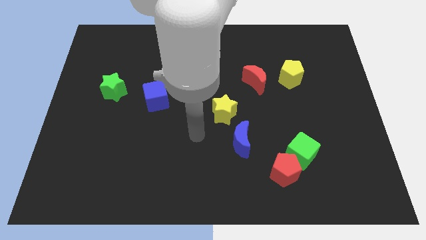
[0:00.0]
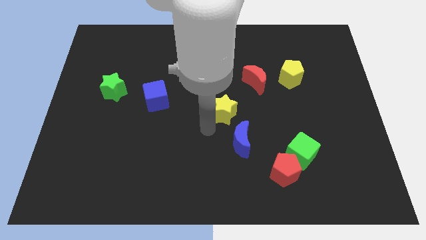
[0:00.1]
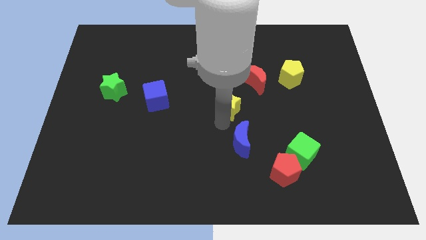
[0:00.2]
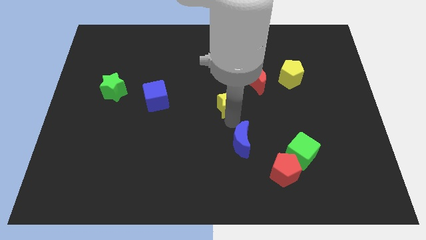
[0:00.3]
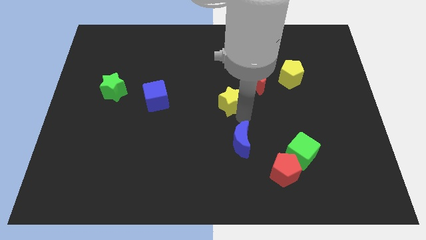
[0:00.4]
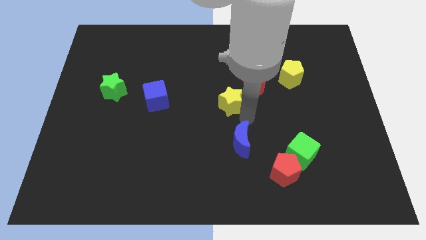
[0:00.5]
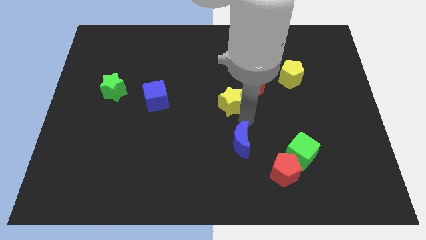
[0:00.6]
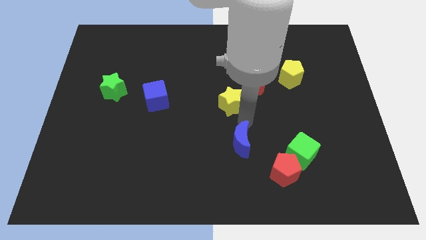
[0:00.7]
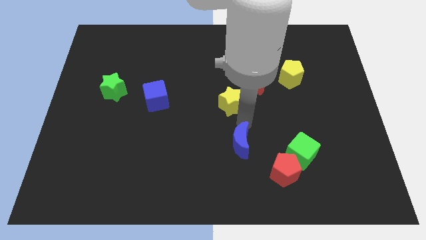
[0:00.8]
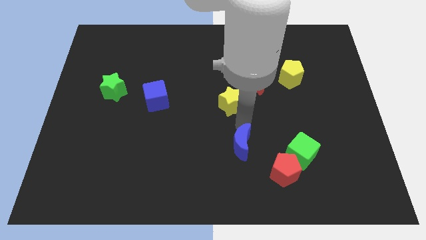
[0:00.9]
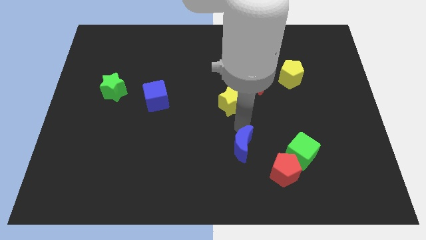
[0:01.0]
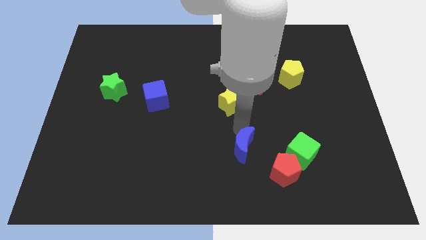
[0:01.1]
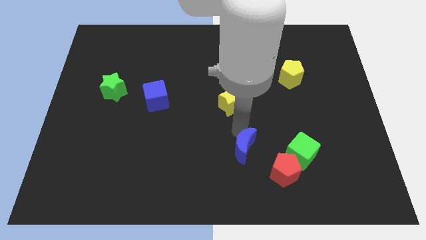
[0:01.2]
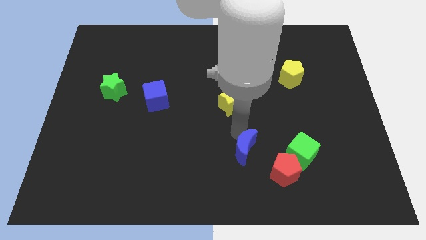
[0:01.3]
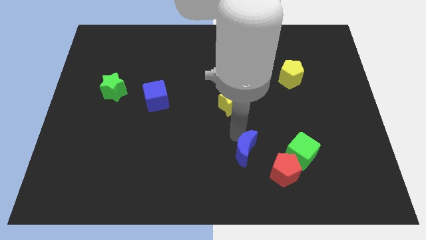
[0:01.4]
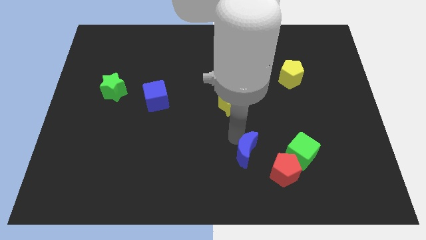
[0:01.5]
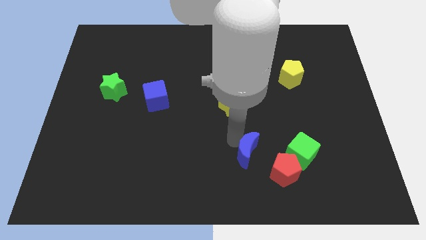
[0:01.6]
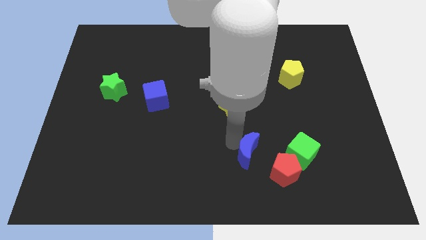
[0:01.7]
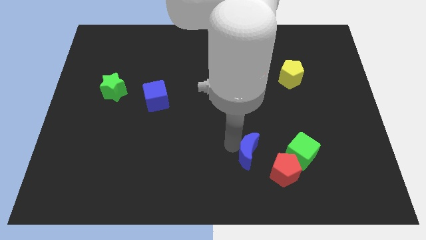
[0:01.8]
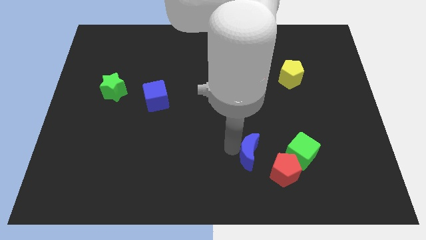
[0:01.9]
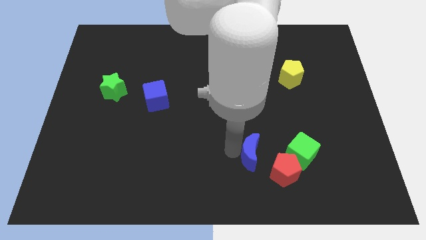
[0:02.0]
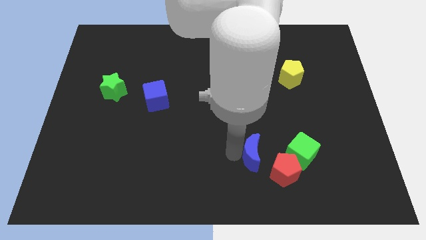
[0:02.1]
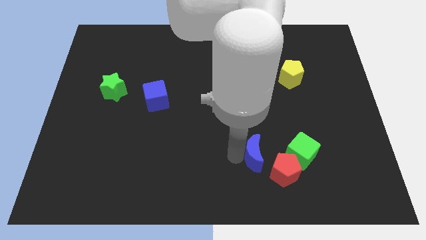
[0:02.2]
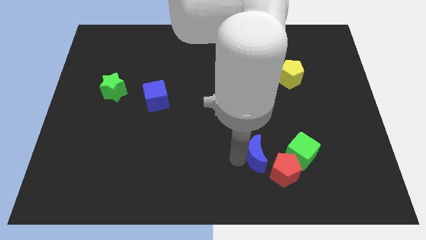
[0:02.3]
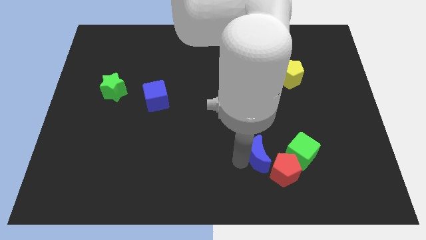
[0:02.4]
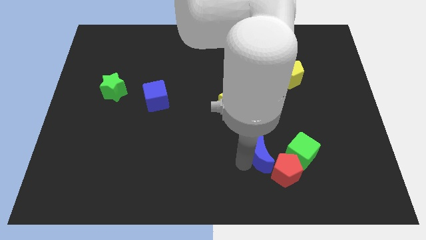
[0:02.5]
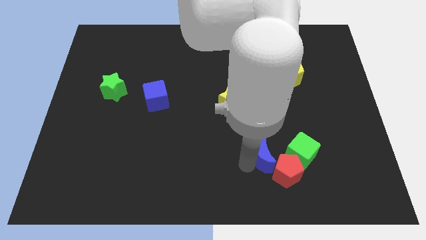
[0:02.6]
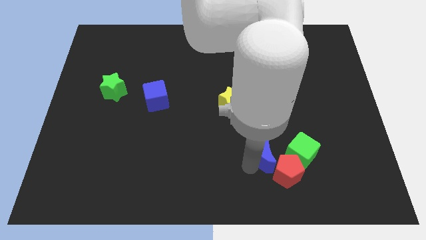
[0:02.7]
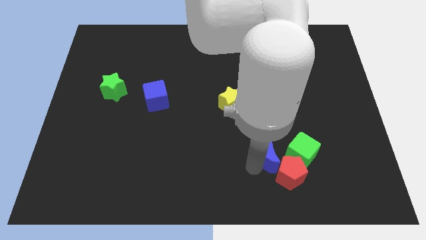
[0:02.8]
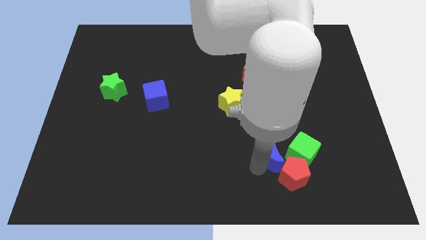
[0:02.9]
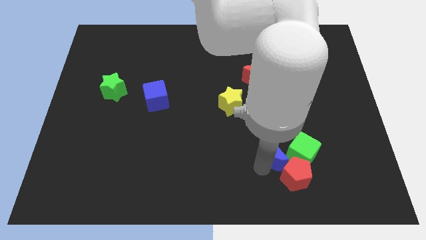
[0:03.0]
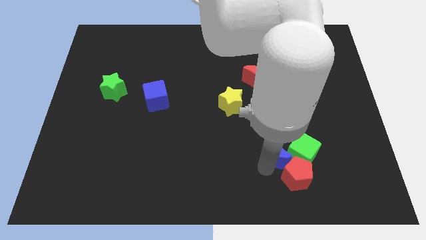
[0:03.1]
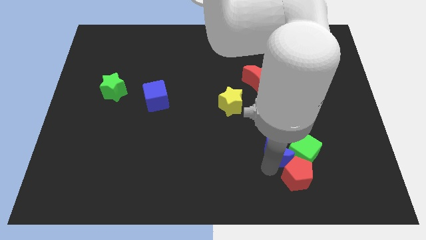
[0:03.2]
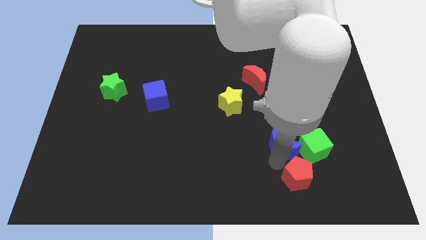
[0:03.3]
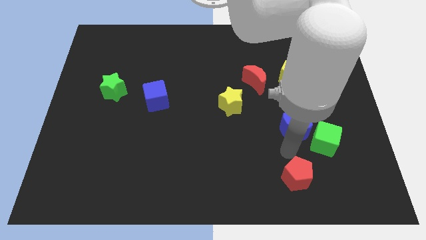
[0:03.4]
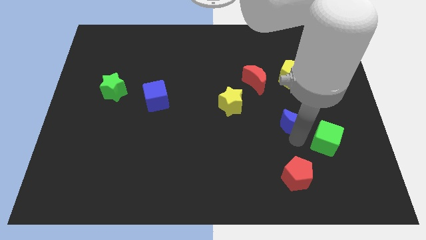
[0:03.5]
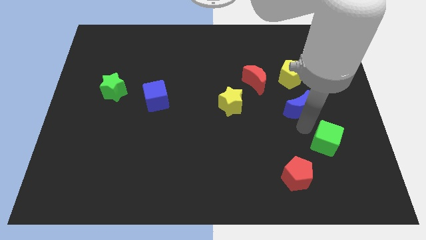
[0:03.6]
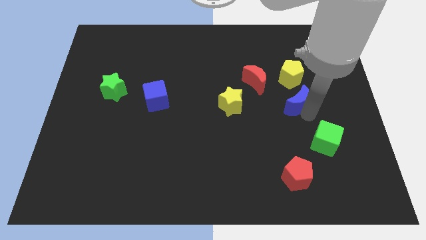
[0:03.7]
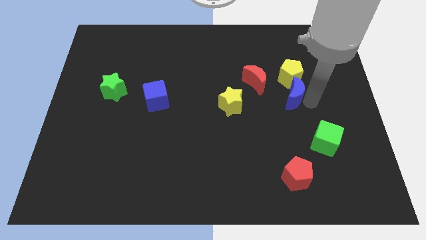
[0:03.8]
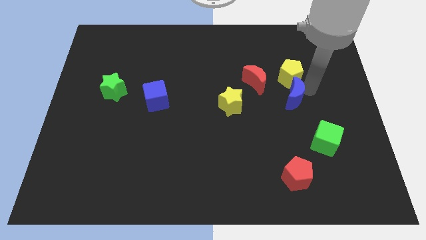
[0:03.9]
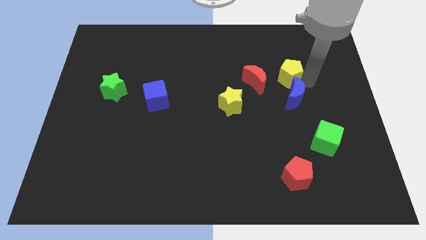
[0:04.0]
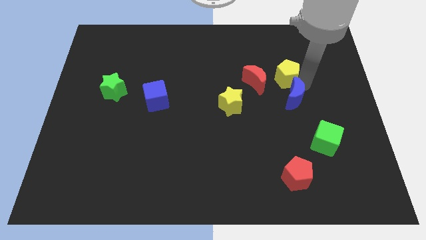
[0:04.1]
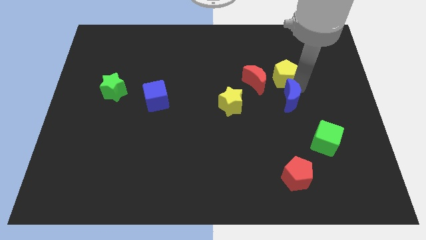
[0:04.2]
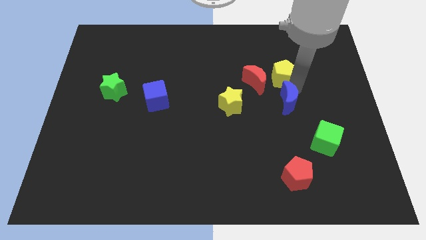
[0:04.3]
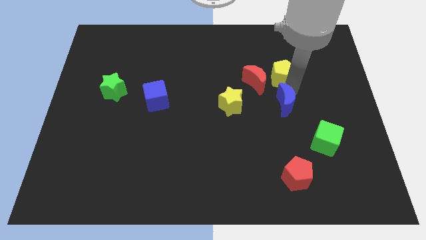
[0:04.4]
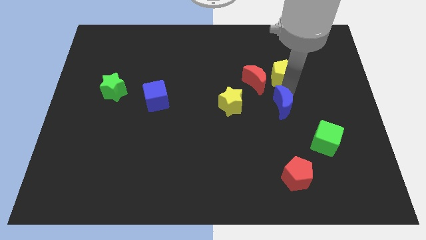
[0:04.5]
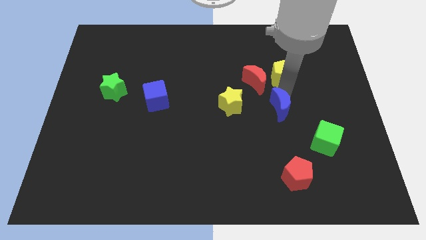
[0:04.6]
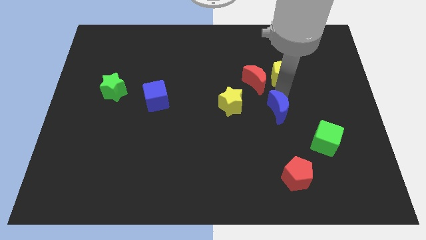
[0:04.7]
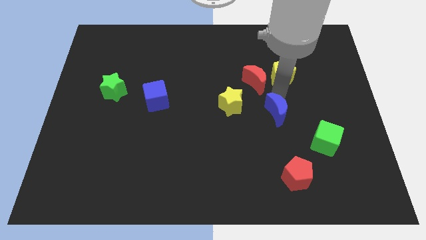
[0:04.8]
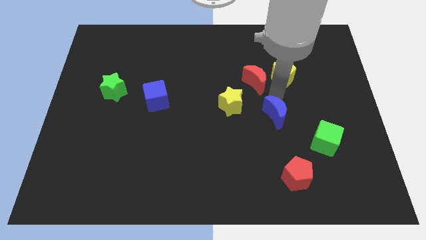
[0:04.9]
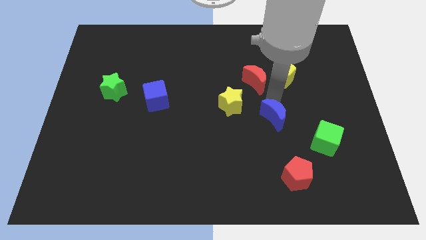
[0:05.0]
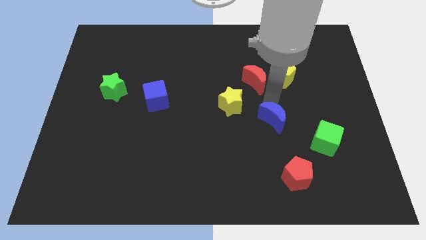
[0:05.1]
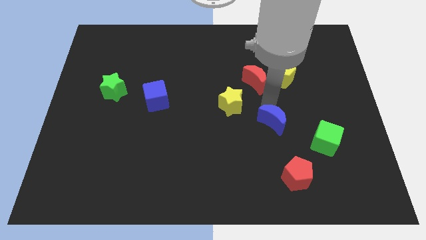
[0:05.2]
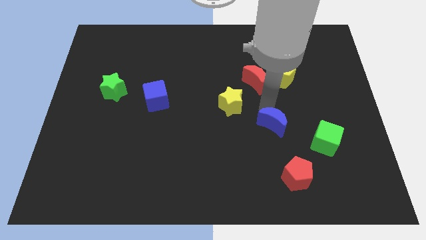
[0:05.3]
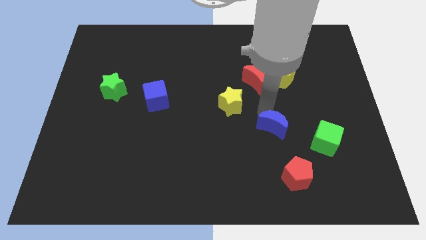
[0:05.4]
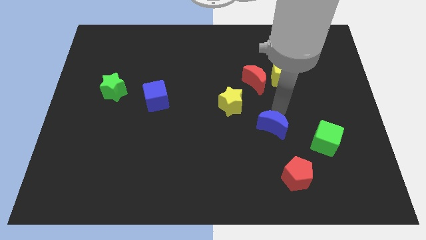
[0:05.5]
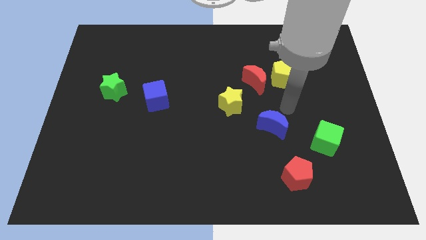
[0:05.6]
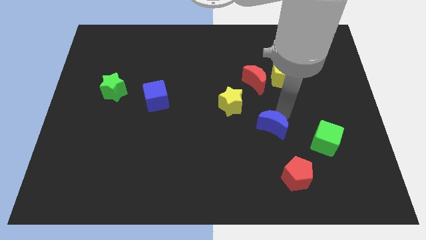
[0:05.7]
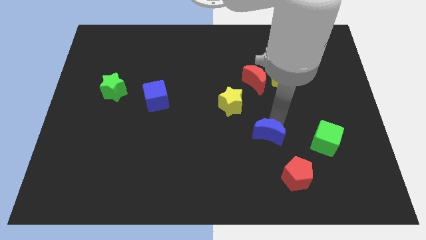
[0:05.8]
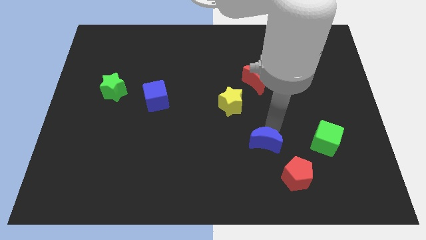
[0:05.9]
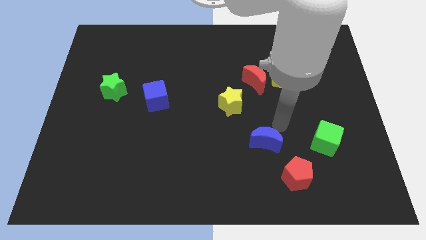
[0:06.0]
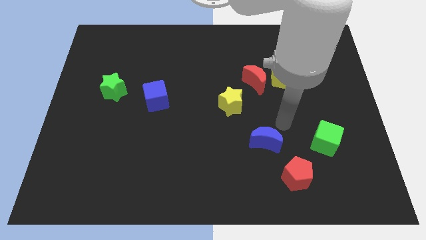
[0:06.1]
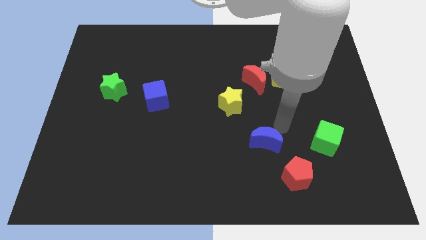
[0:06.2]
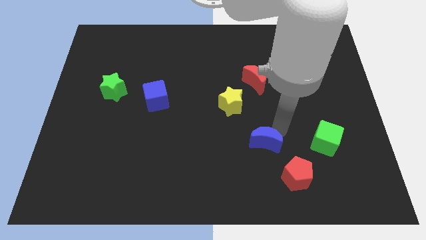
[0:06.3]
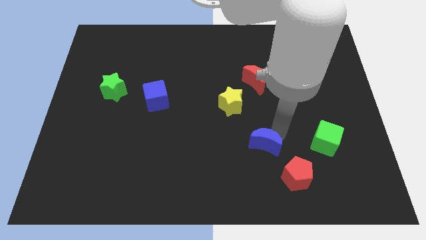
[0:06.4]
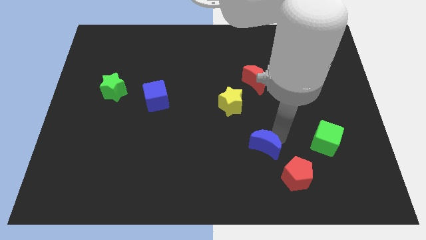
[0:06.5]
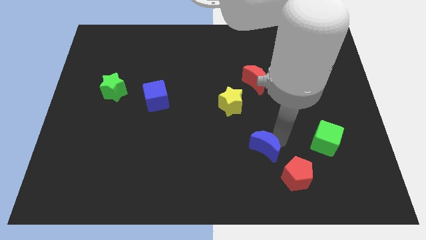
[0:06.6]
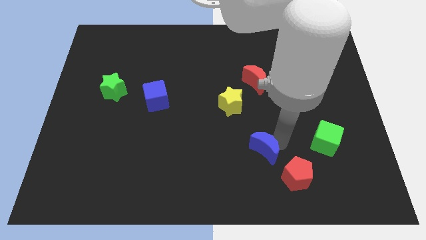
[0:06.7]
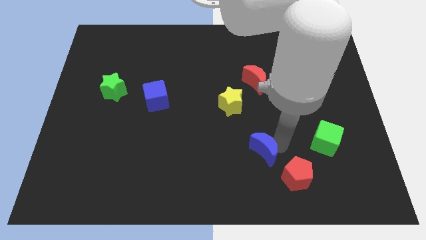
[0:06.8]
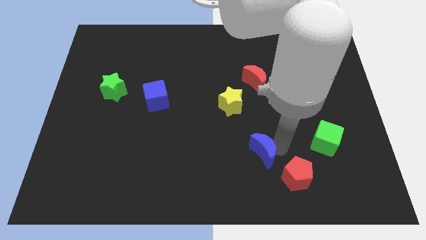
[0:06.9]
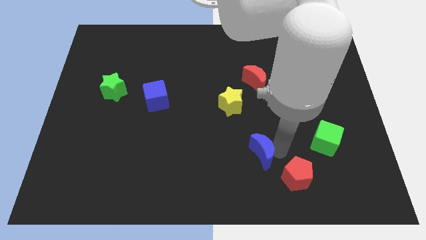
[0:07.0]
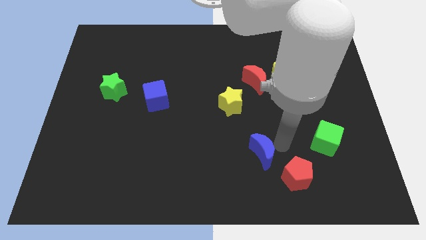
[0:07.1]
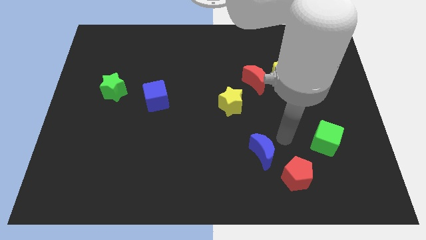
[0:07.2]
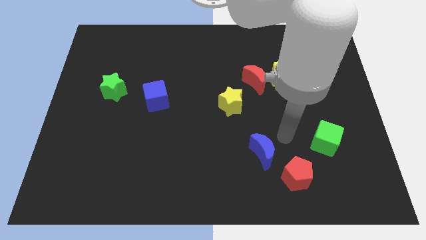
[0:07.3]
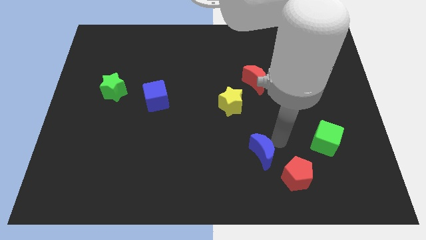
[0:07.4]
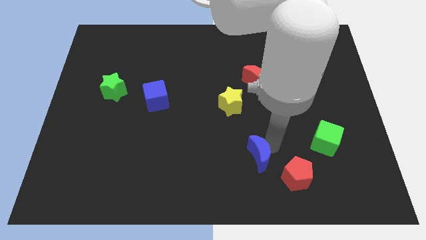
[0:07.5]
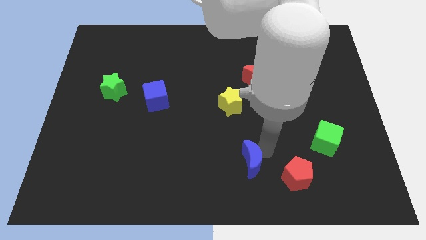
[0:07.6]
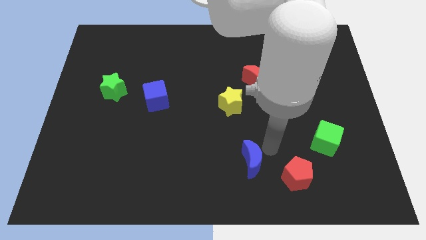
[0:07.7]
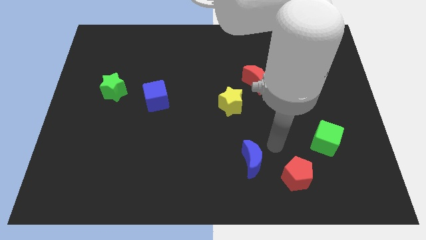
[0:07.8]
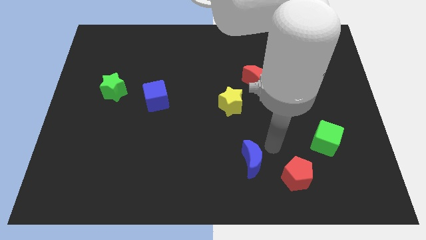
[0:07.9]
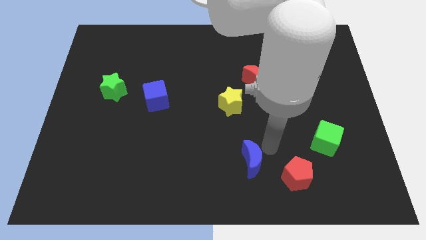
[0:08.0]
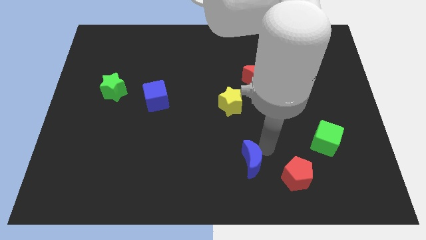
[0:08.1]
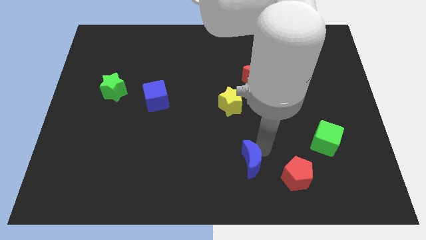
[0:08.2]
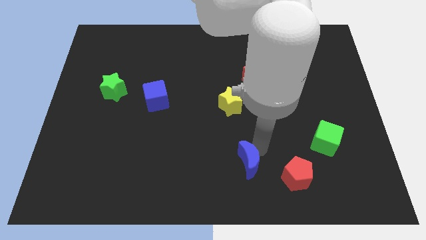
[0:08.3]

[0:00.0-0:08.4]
move the blue moon to the bottom side
